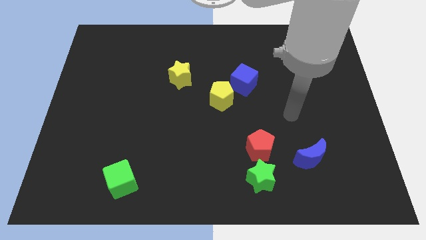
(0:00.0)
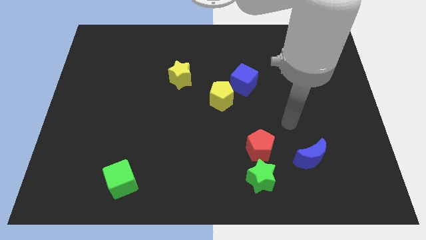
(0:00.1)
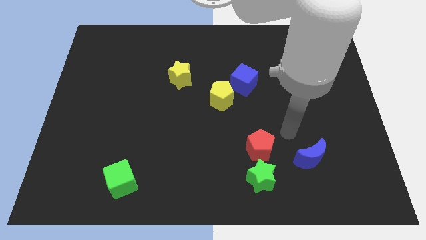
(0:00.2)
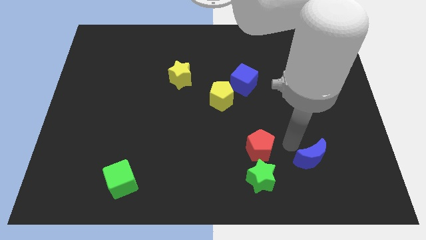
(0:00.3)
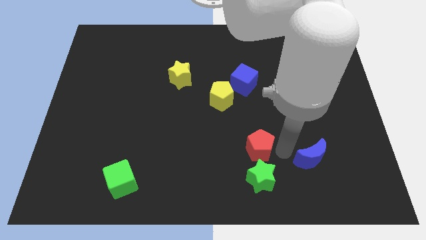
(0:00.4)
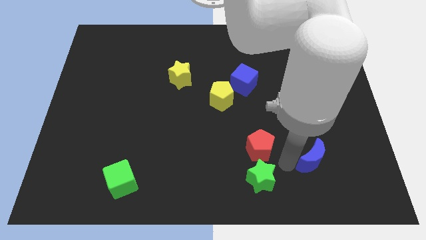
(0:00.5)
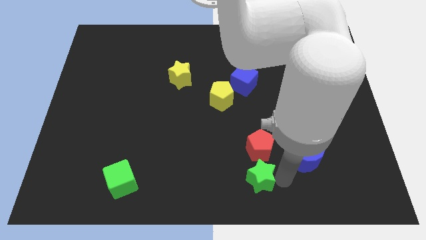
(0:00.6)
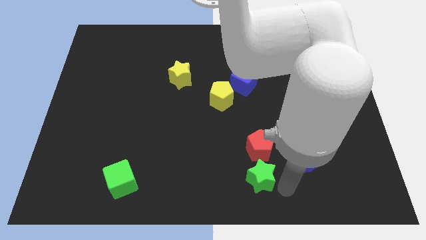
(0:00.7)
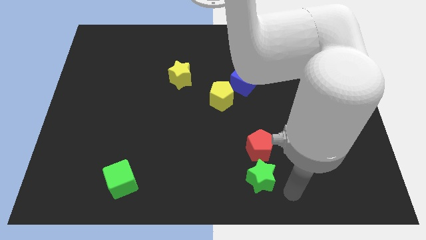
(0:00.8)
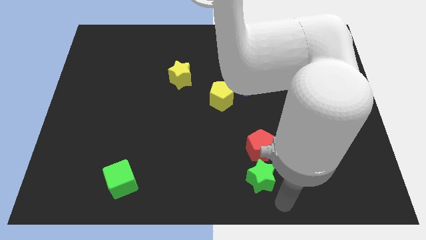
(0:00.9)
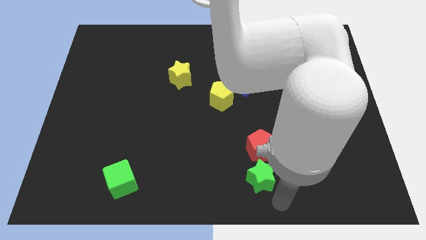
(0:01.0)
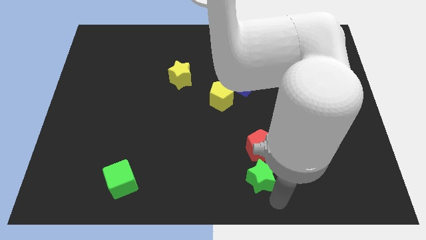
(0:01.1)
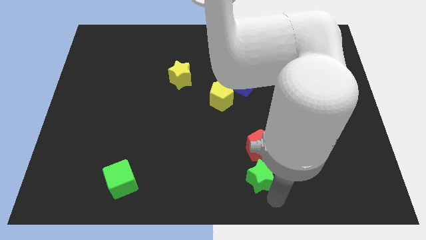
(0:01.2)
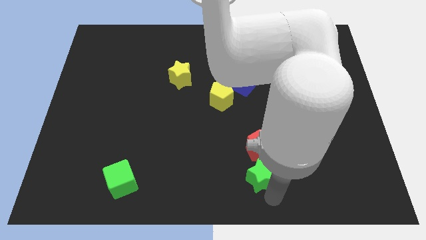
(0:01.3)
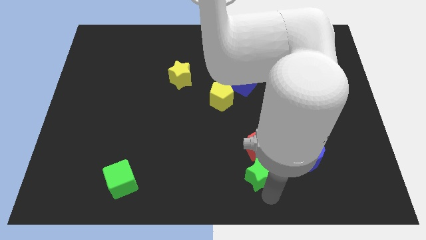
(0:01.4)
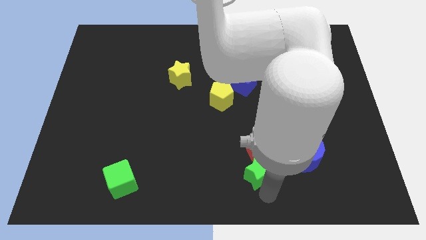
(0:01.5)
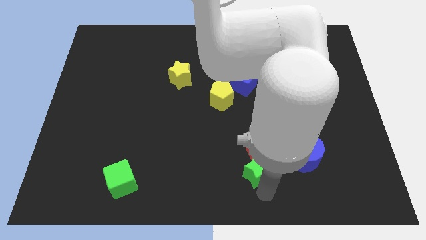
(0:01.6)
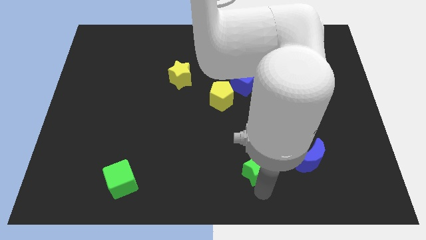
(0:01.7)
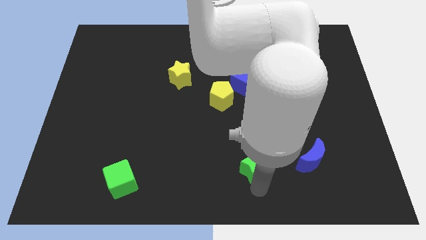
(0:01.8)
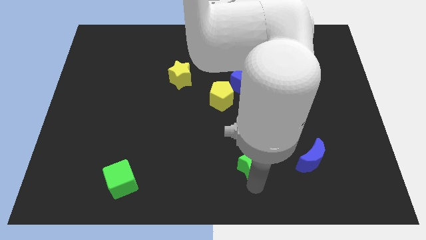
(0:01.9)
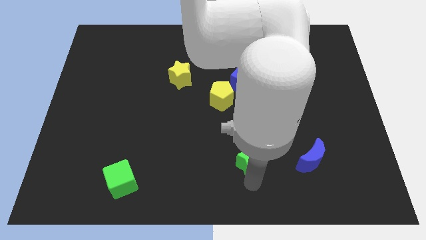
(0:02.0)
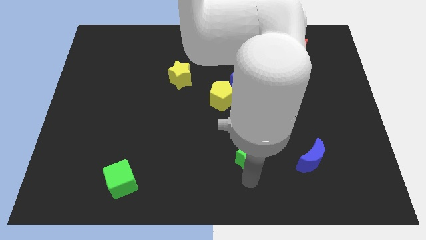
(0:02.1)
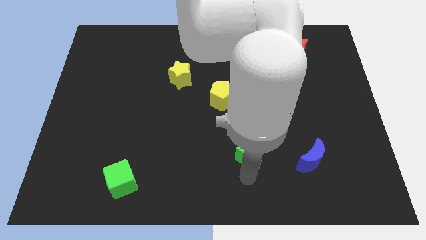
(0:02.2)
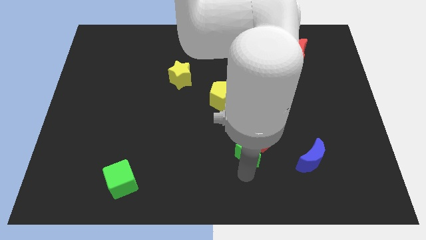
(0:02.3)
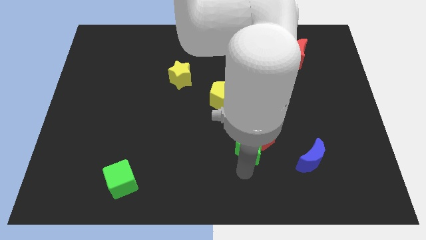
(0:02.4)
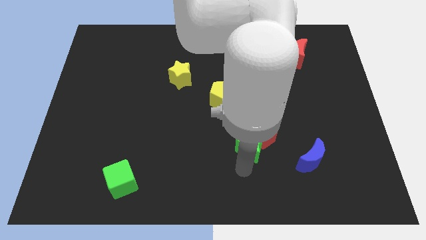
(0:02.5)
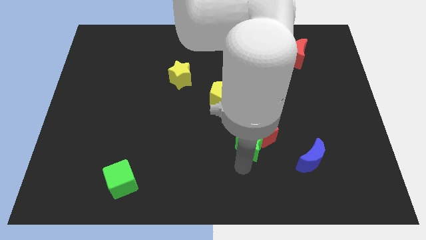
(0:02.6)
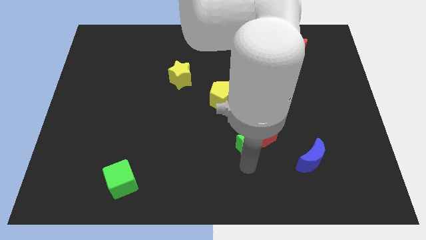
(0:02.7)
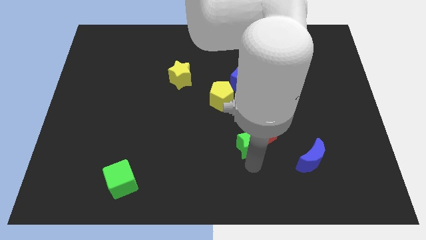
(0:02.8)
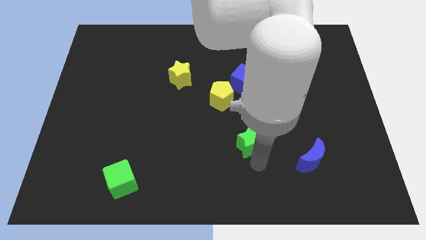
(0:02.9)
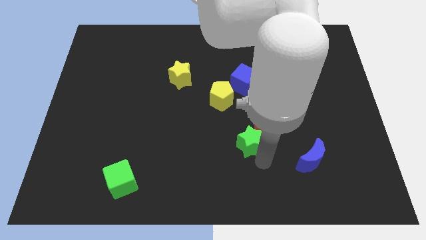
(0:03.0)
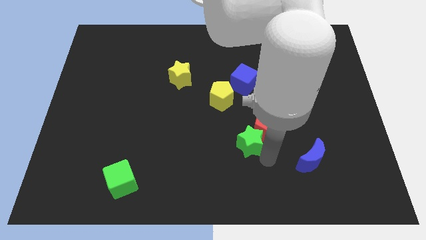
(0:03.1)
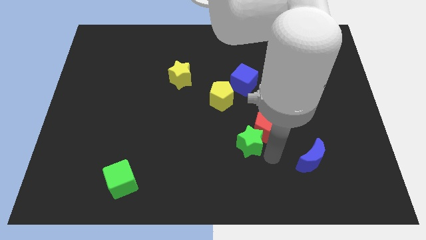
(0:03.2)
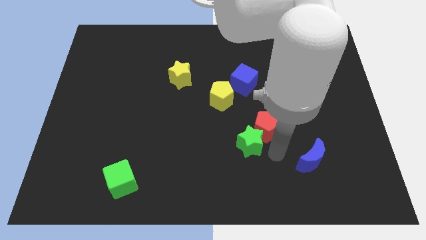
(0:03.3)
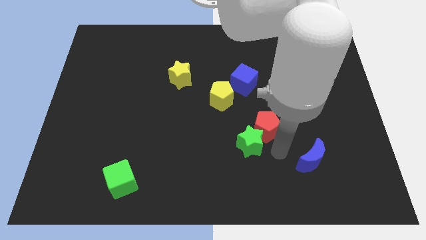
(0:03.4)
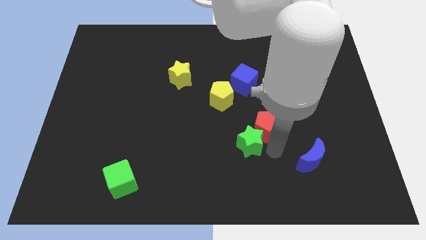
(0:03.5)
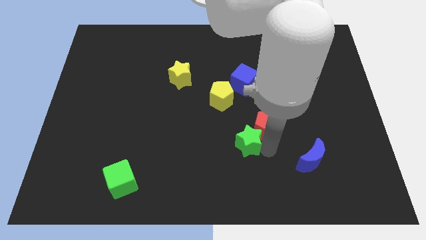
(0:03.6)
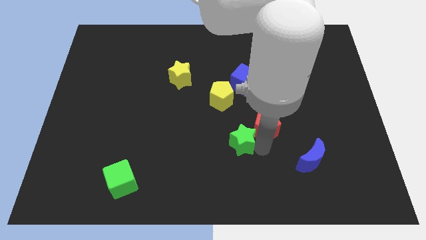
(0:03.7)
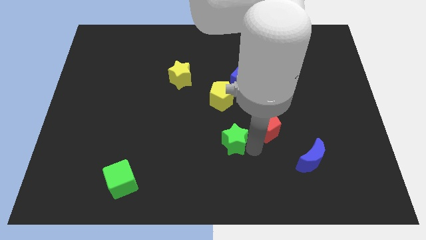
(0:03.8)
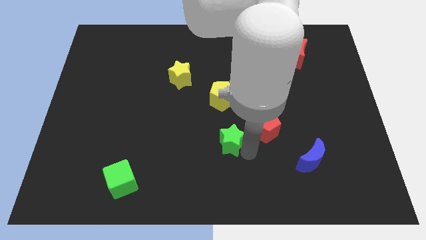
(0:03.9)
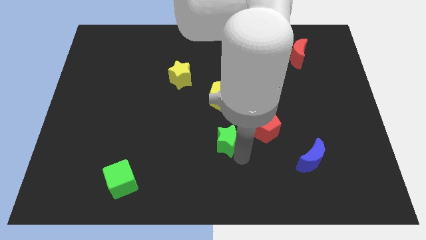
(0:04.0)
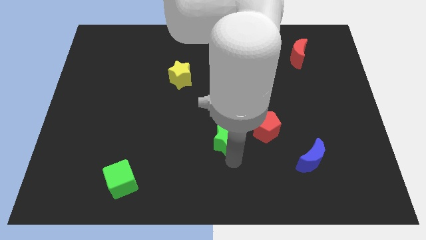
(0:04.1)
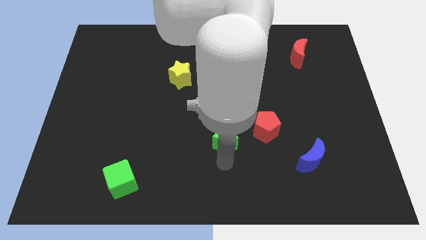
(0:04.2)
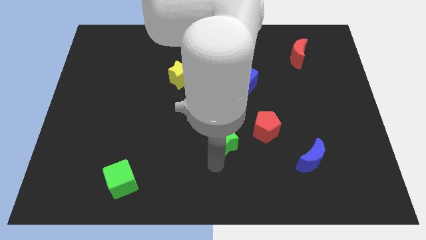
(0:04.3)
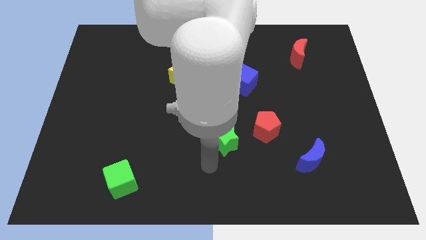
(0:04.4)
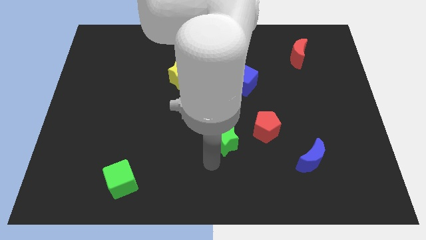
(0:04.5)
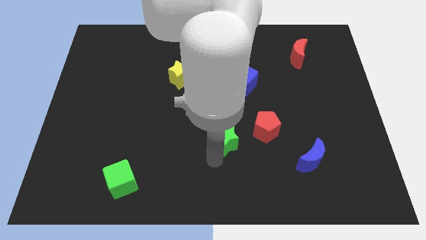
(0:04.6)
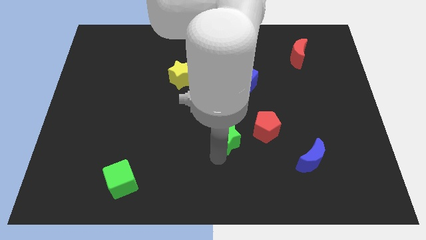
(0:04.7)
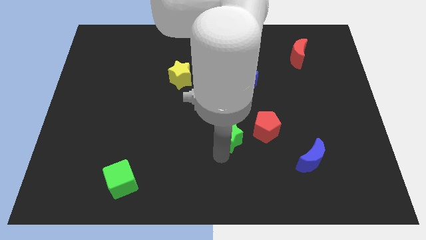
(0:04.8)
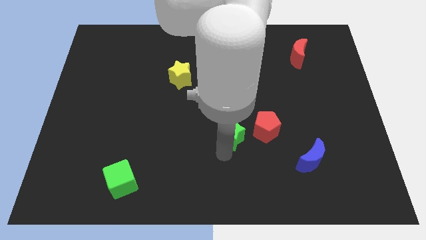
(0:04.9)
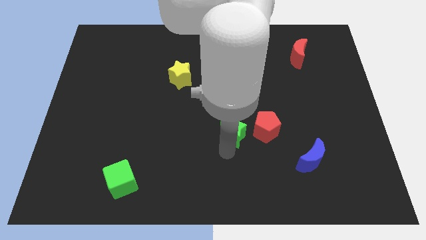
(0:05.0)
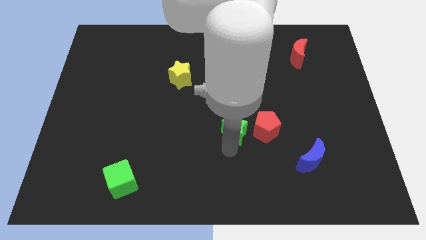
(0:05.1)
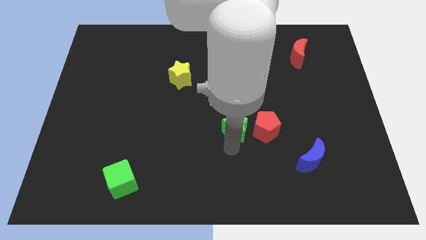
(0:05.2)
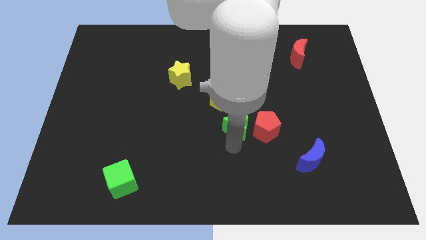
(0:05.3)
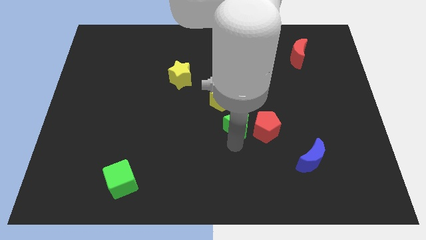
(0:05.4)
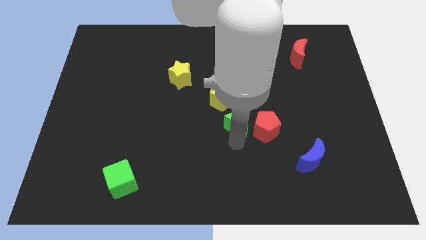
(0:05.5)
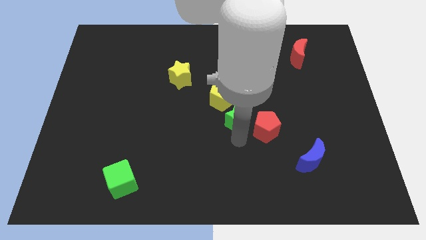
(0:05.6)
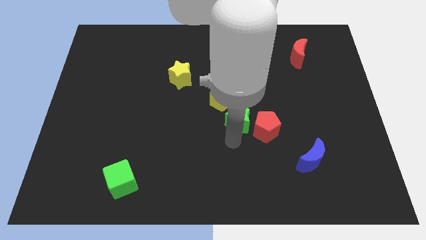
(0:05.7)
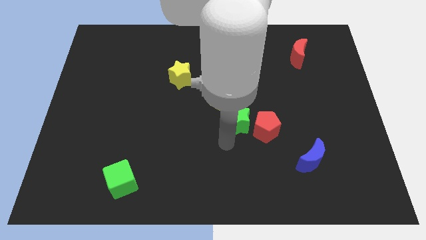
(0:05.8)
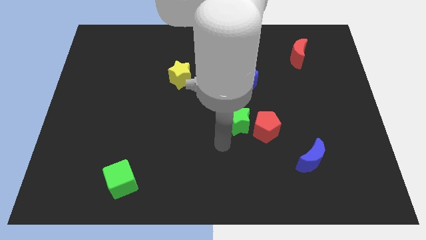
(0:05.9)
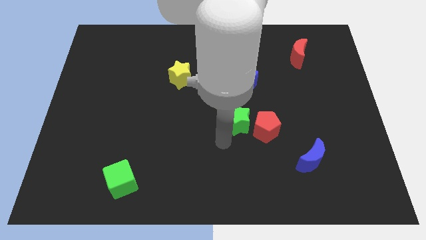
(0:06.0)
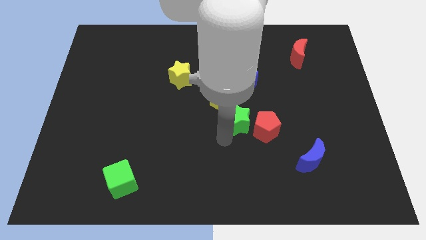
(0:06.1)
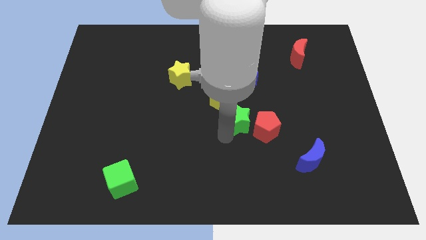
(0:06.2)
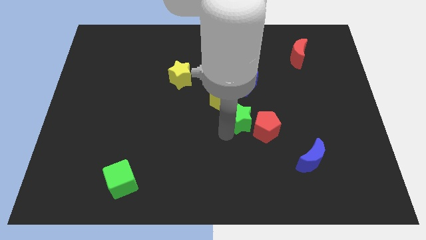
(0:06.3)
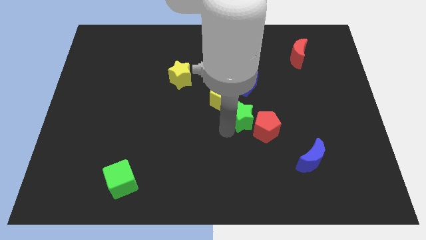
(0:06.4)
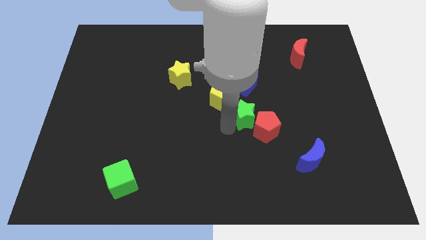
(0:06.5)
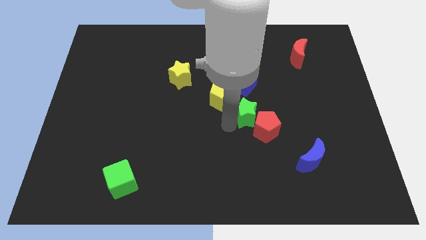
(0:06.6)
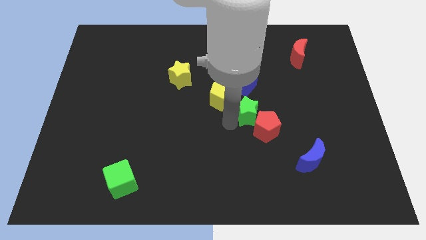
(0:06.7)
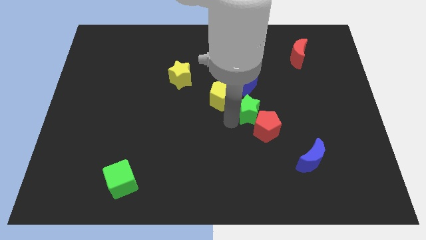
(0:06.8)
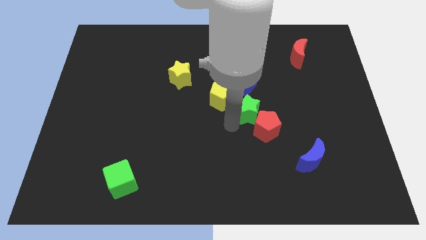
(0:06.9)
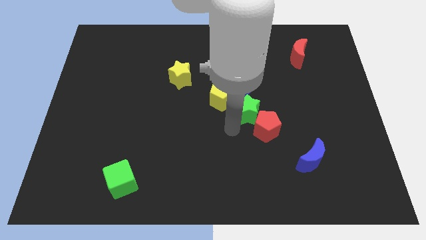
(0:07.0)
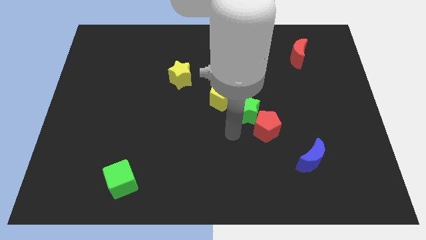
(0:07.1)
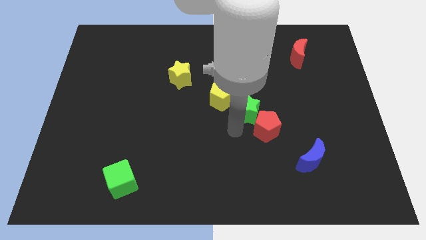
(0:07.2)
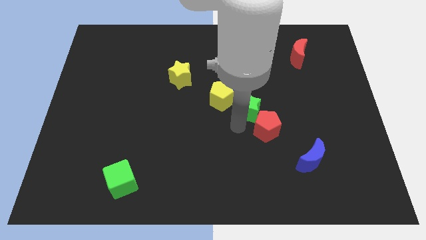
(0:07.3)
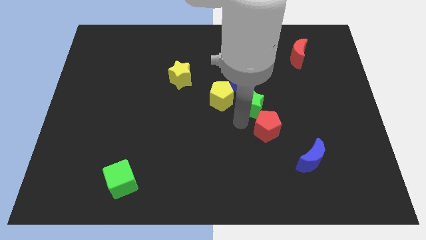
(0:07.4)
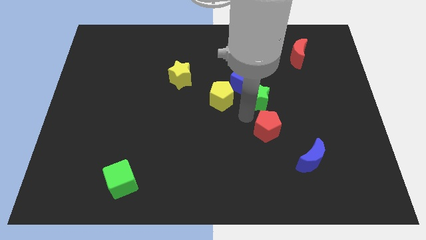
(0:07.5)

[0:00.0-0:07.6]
push the green star upwards

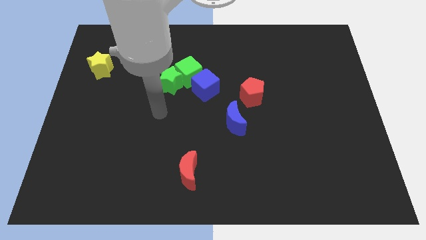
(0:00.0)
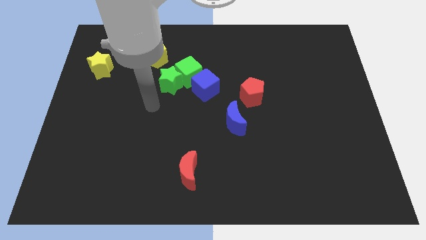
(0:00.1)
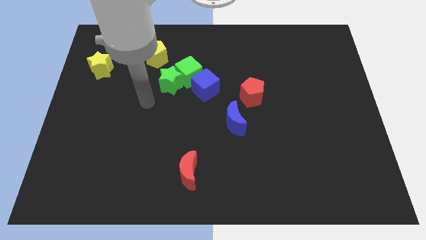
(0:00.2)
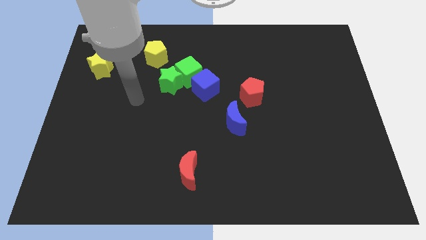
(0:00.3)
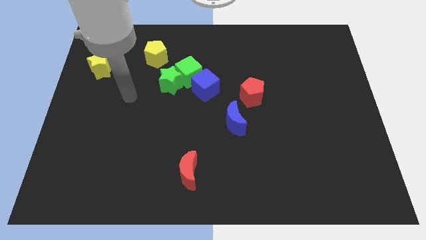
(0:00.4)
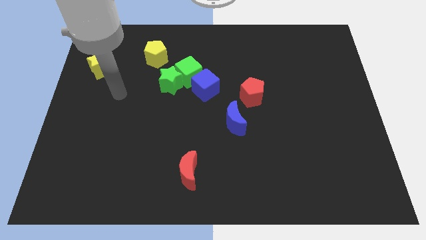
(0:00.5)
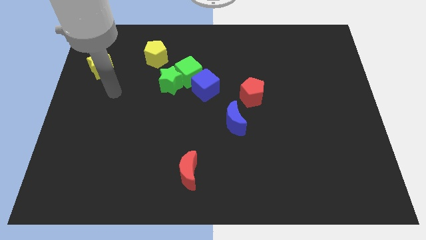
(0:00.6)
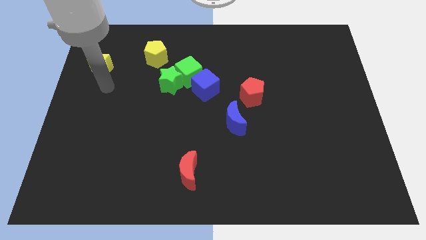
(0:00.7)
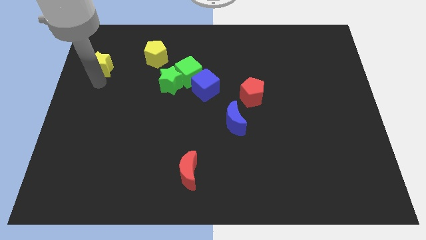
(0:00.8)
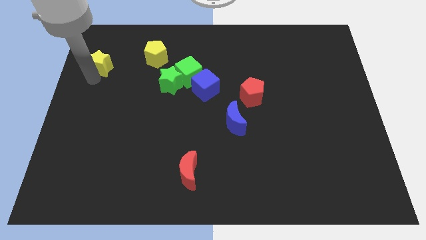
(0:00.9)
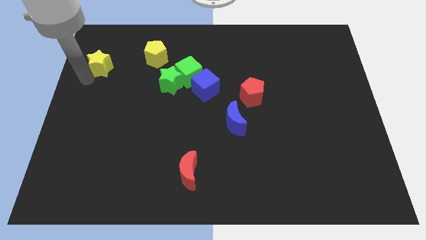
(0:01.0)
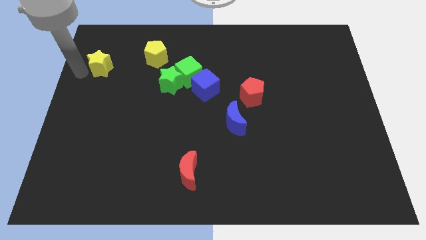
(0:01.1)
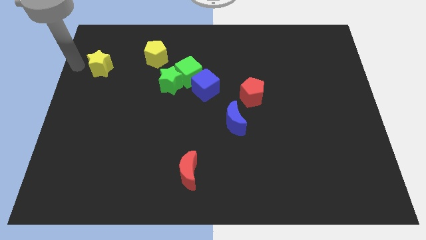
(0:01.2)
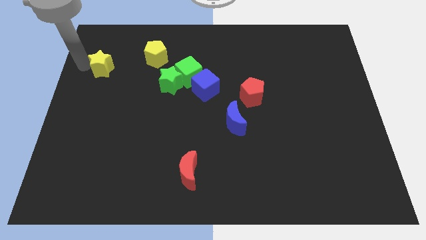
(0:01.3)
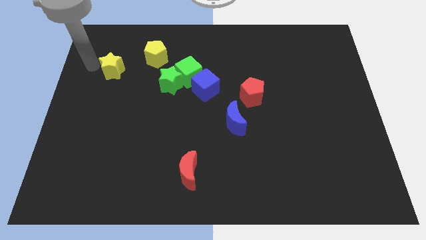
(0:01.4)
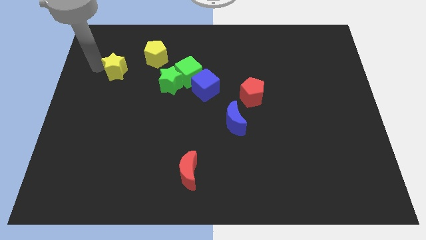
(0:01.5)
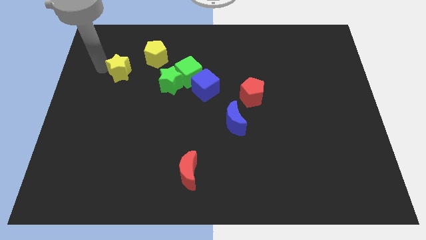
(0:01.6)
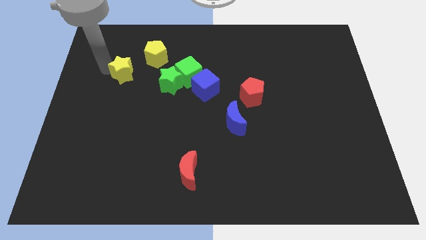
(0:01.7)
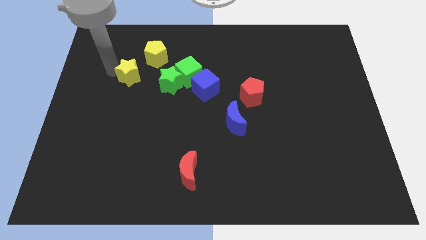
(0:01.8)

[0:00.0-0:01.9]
slightly push the yellow star to the right
